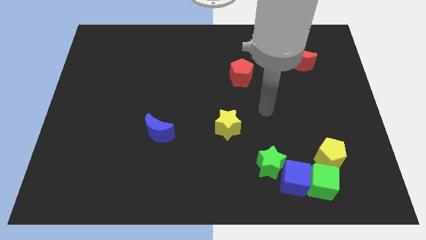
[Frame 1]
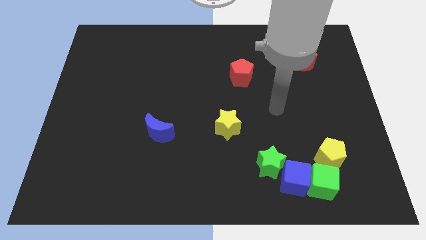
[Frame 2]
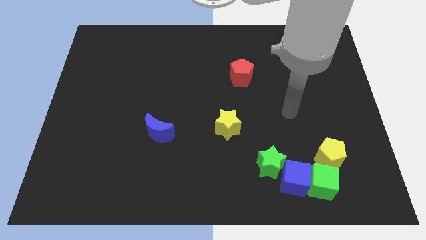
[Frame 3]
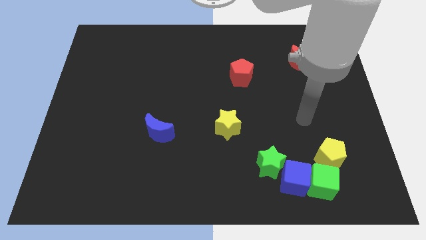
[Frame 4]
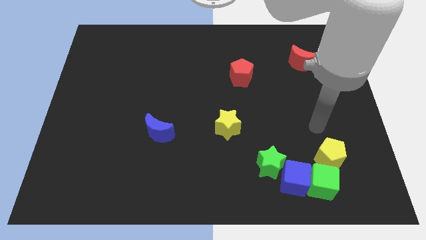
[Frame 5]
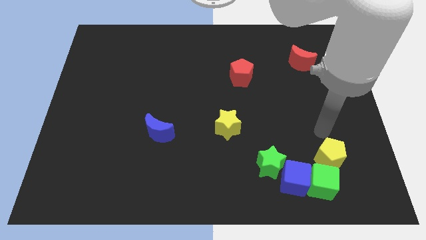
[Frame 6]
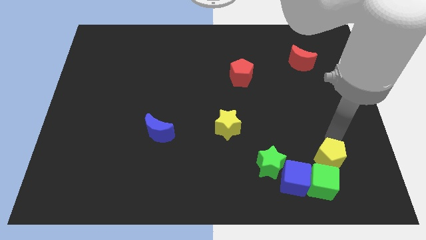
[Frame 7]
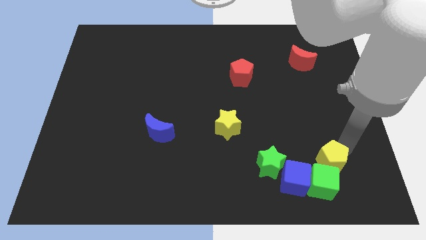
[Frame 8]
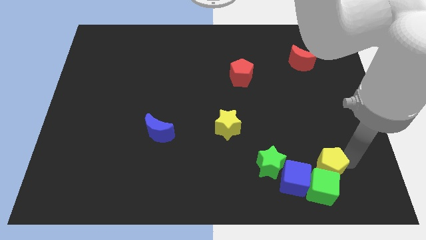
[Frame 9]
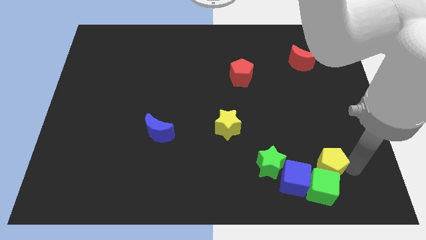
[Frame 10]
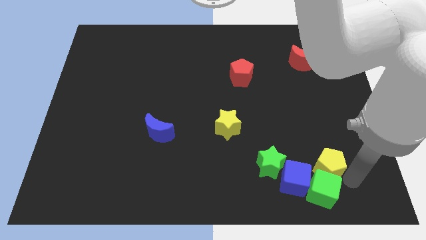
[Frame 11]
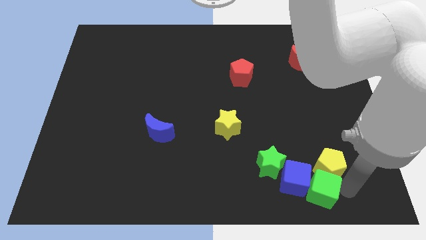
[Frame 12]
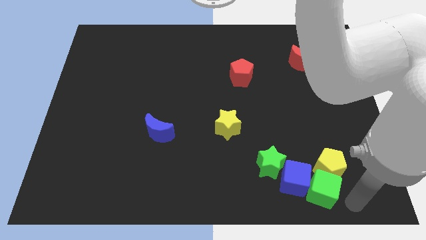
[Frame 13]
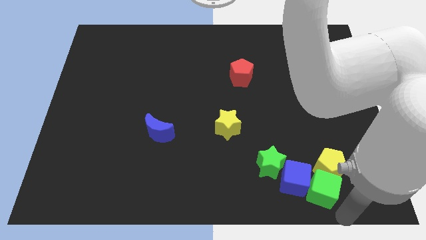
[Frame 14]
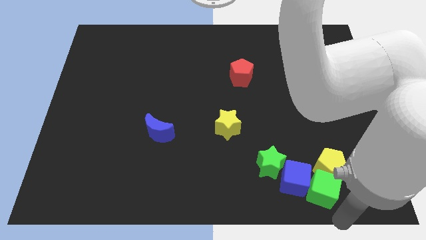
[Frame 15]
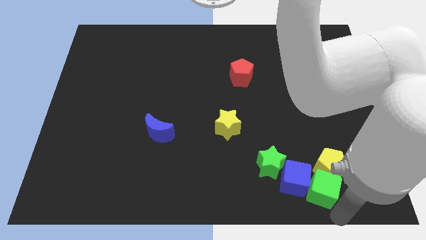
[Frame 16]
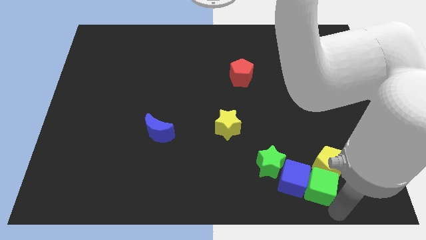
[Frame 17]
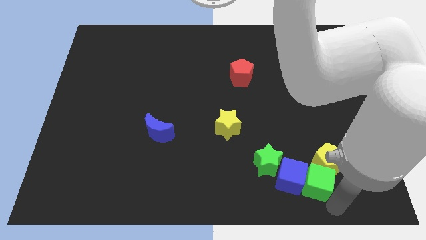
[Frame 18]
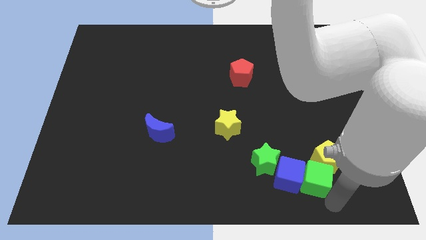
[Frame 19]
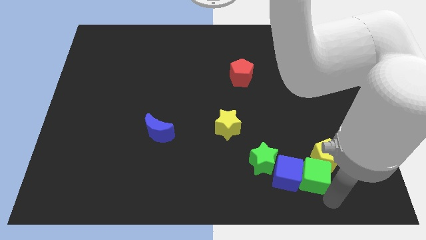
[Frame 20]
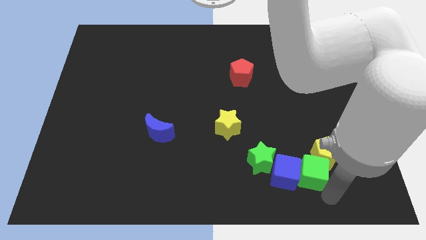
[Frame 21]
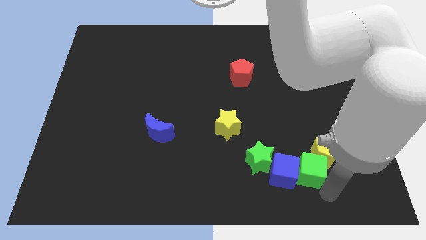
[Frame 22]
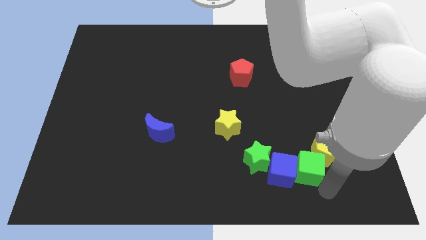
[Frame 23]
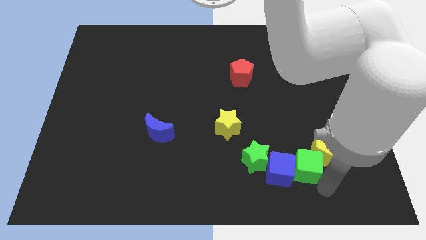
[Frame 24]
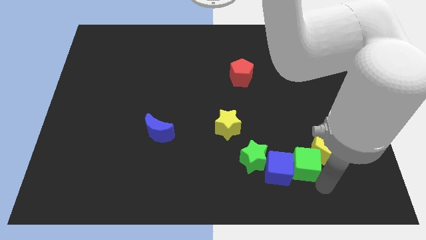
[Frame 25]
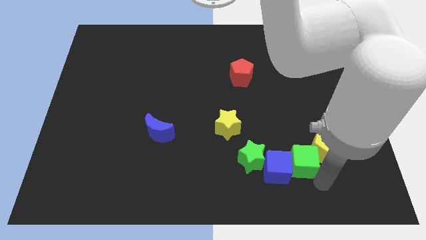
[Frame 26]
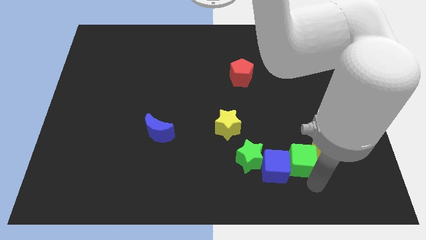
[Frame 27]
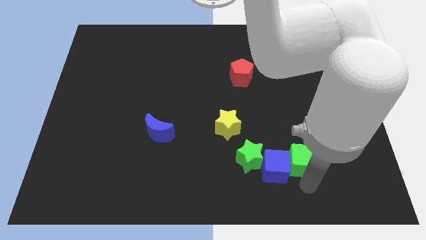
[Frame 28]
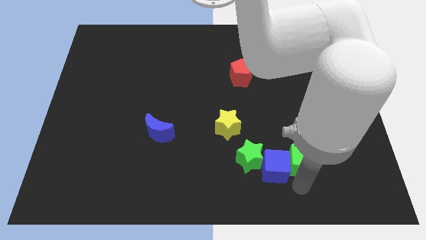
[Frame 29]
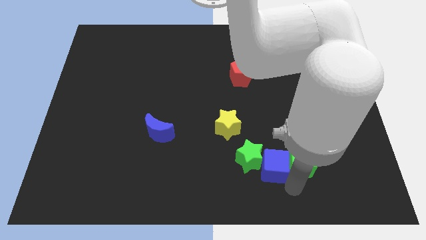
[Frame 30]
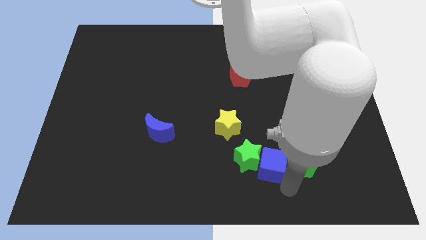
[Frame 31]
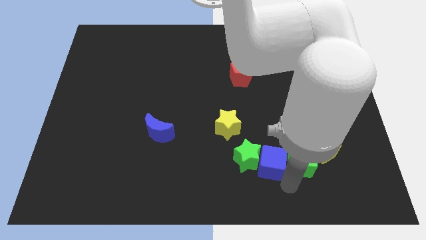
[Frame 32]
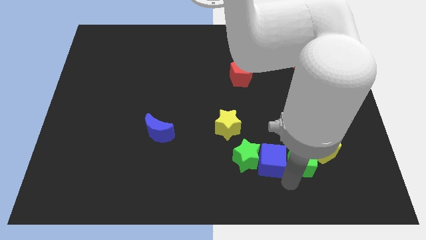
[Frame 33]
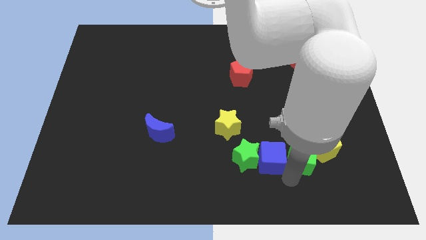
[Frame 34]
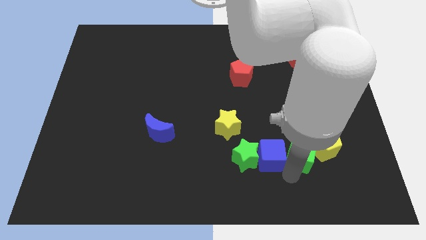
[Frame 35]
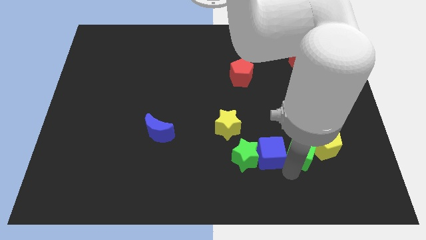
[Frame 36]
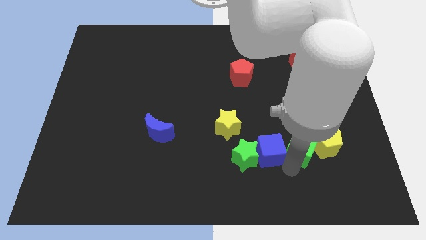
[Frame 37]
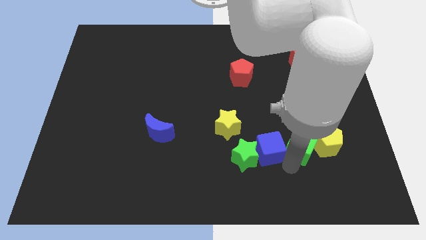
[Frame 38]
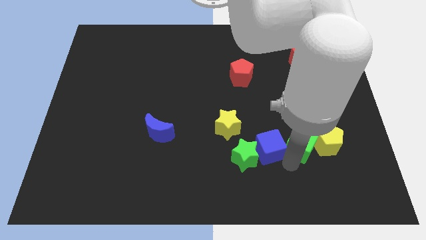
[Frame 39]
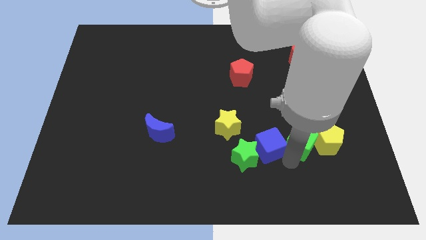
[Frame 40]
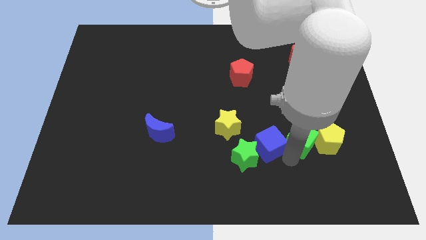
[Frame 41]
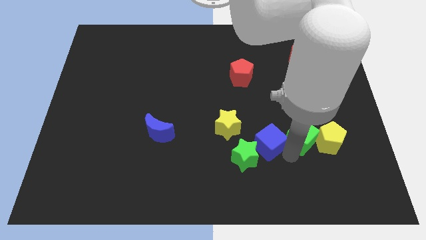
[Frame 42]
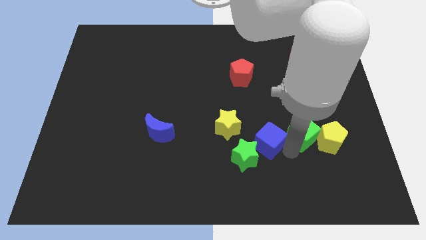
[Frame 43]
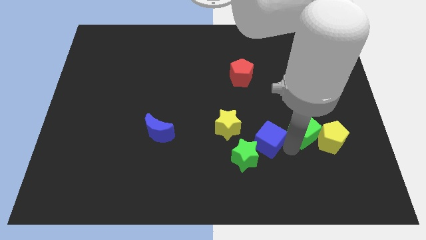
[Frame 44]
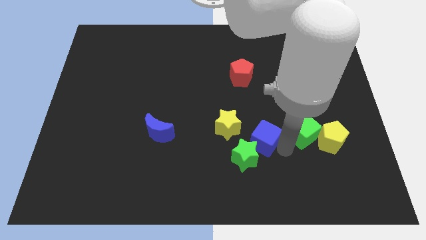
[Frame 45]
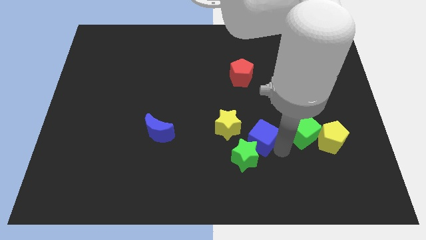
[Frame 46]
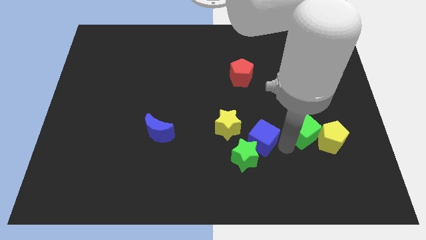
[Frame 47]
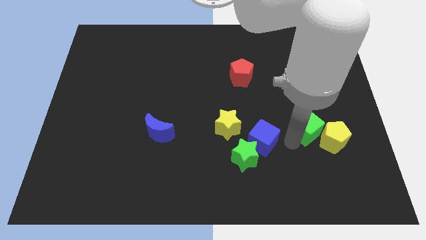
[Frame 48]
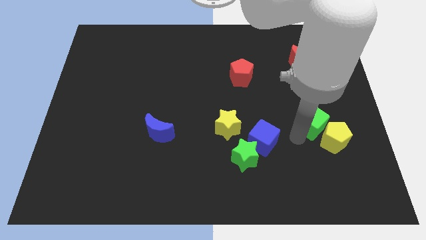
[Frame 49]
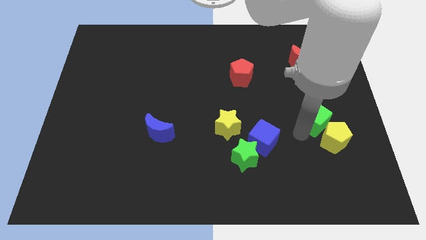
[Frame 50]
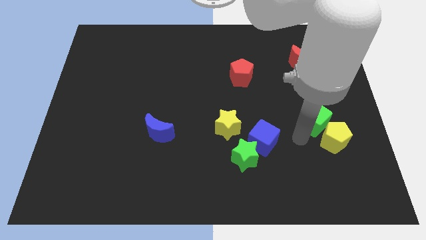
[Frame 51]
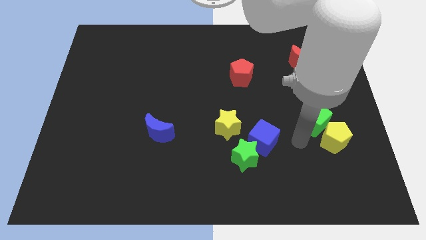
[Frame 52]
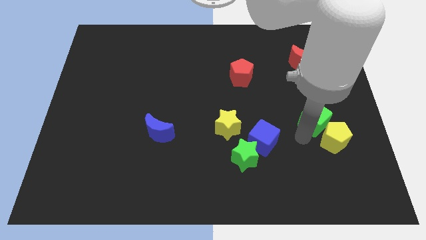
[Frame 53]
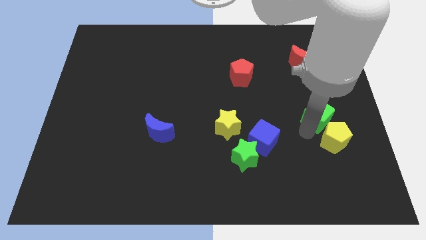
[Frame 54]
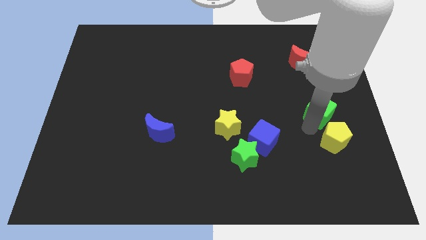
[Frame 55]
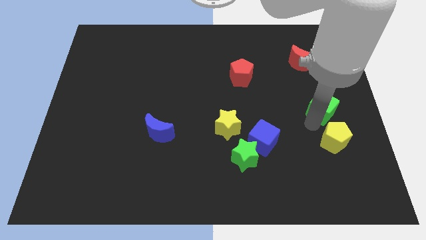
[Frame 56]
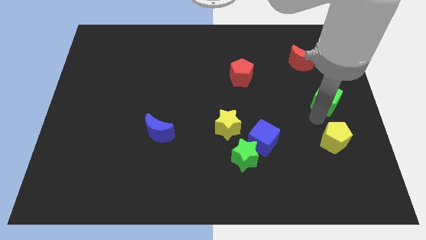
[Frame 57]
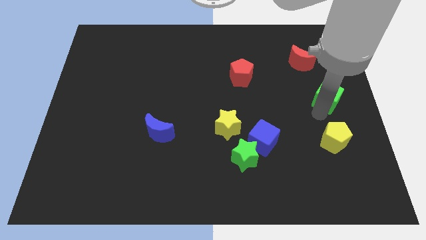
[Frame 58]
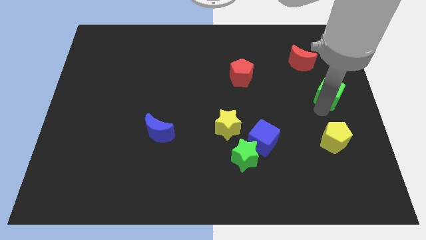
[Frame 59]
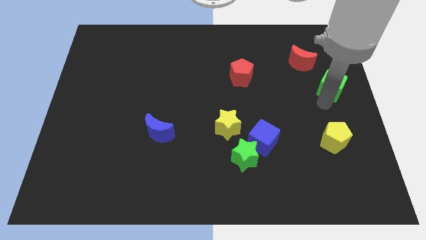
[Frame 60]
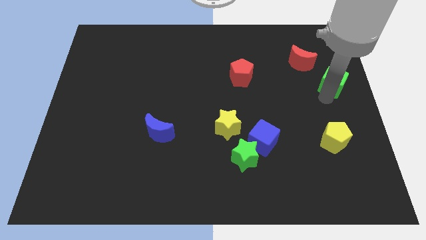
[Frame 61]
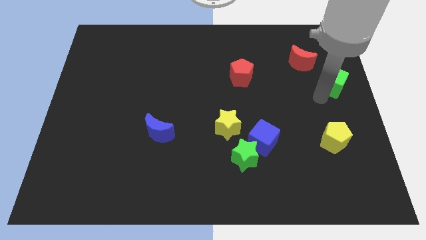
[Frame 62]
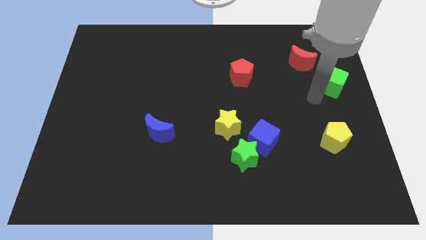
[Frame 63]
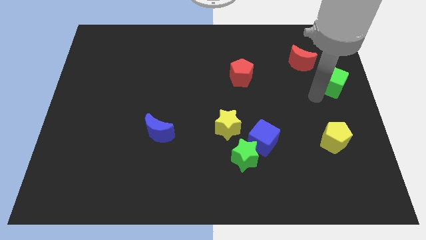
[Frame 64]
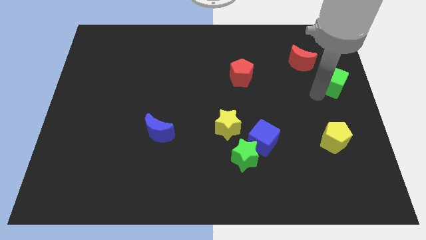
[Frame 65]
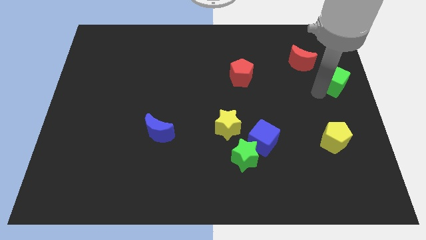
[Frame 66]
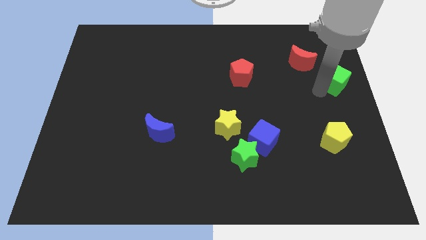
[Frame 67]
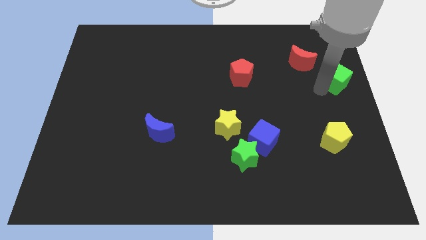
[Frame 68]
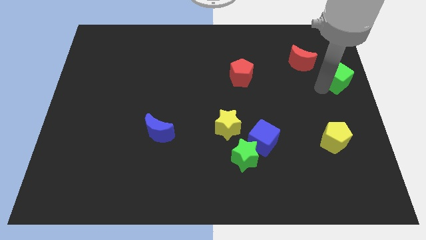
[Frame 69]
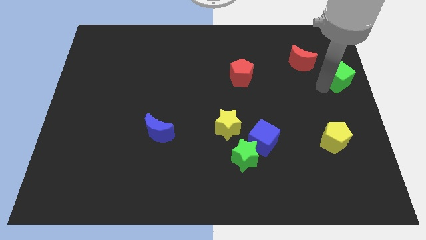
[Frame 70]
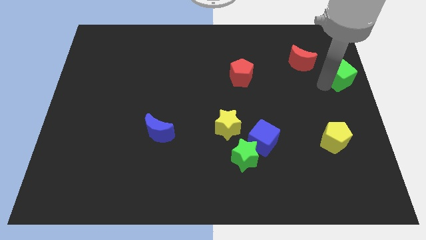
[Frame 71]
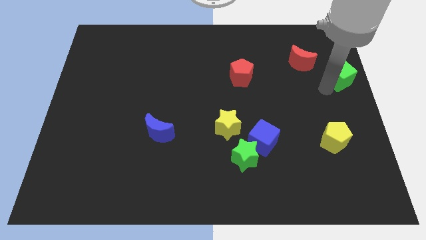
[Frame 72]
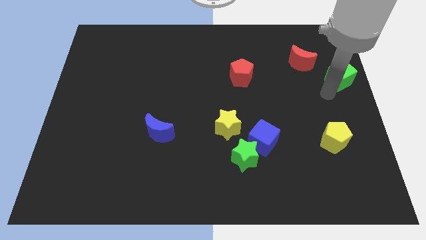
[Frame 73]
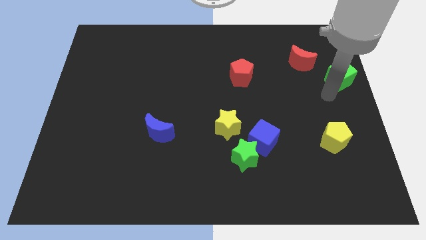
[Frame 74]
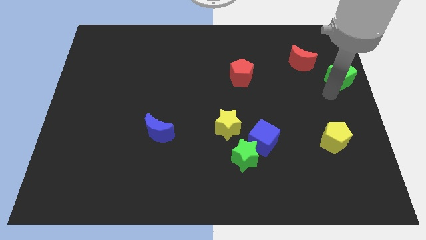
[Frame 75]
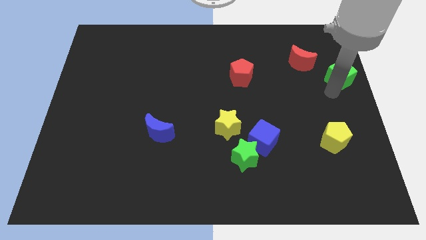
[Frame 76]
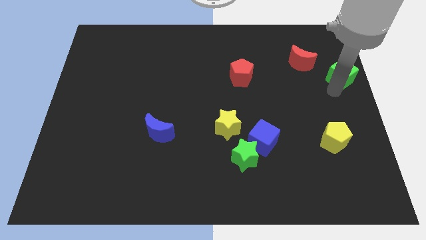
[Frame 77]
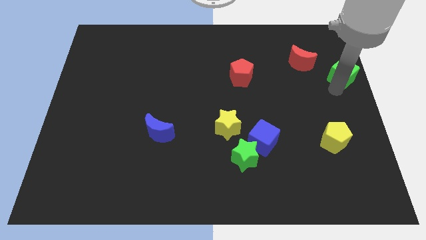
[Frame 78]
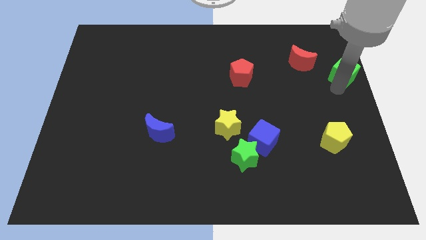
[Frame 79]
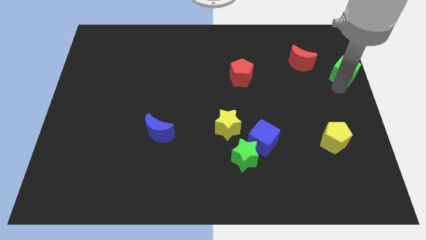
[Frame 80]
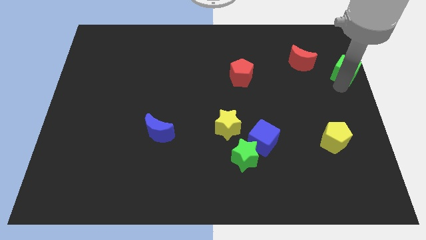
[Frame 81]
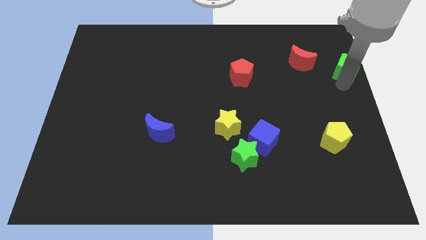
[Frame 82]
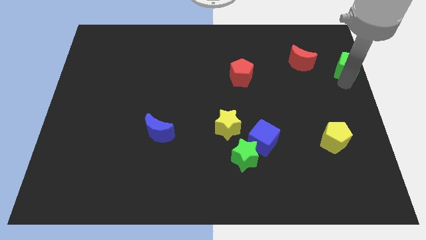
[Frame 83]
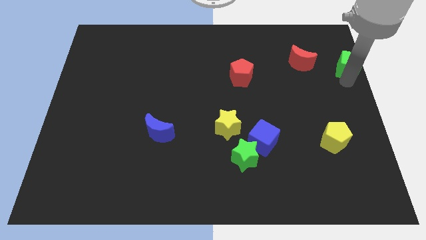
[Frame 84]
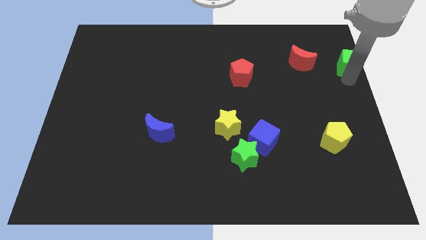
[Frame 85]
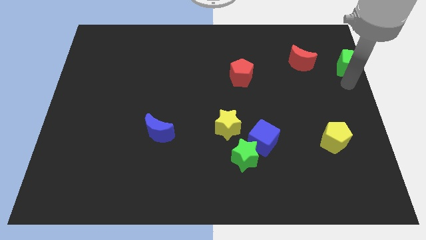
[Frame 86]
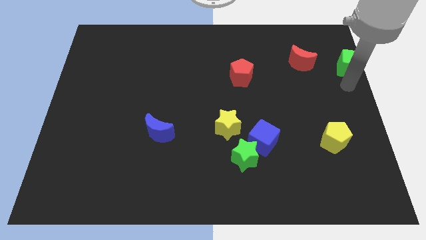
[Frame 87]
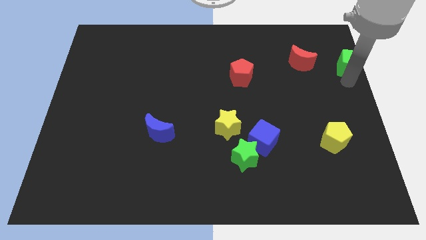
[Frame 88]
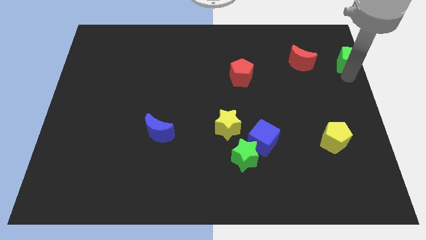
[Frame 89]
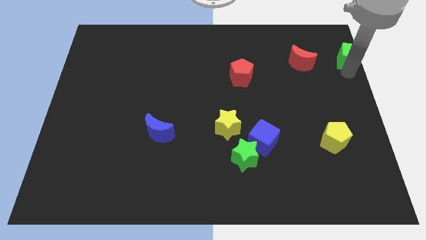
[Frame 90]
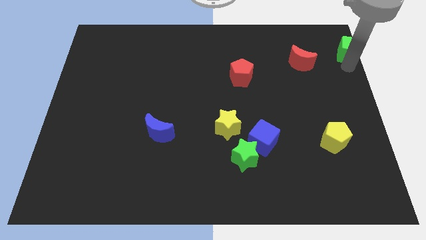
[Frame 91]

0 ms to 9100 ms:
slide the green cube to the top right of the board
